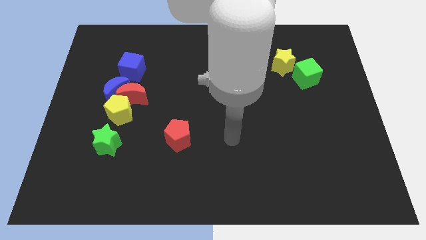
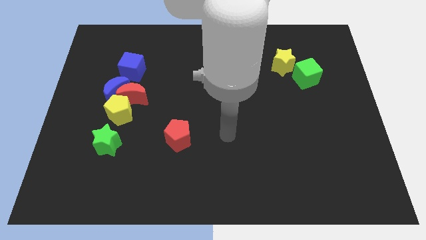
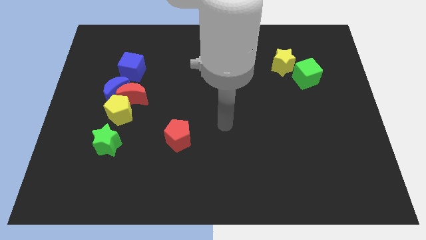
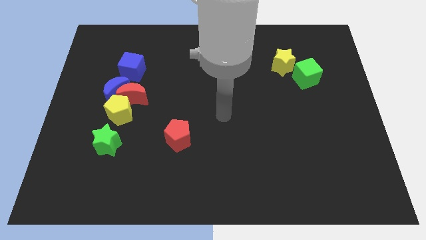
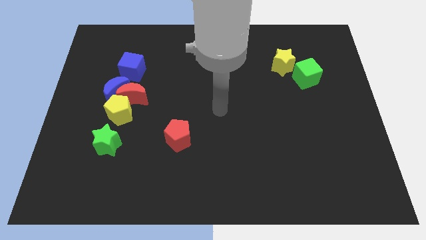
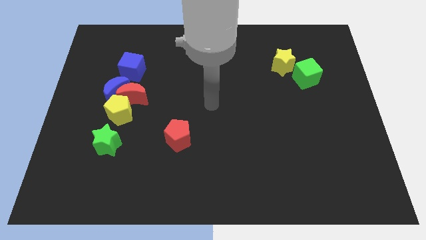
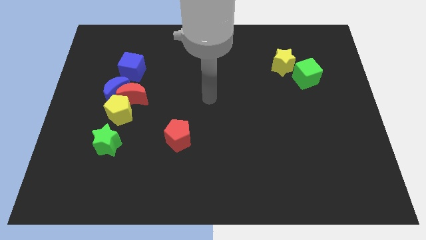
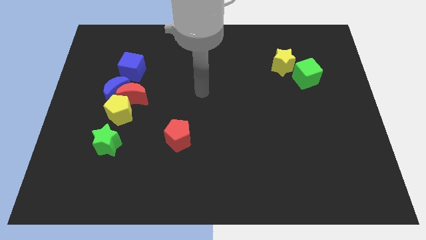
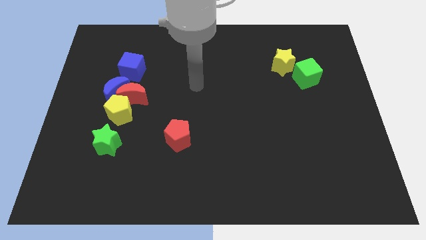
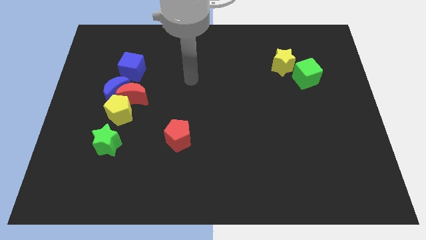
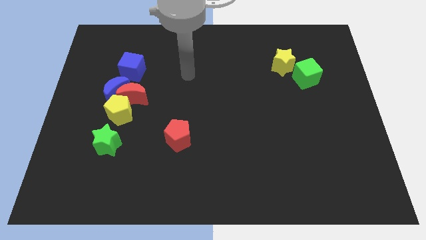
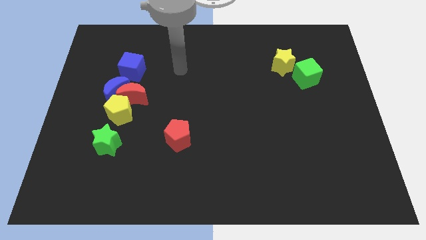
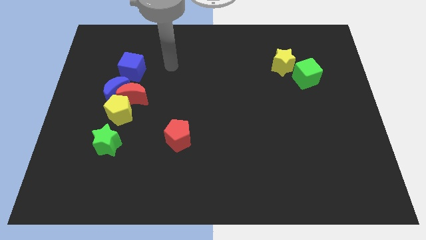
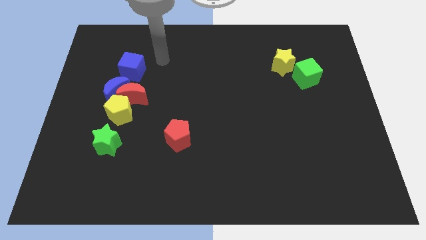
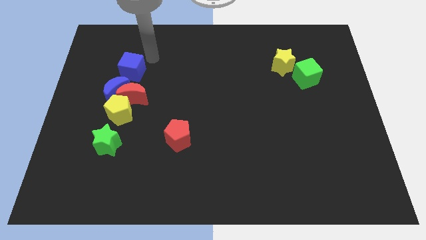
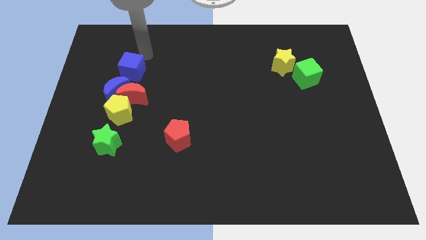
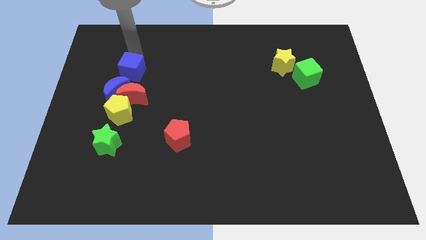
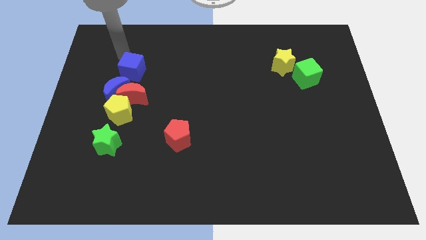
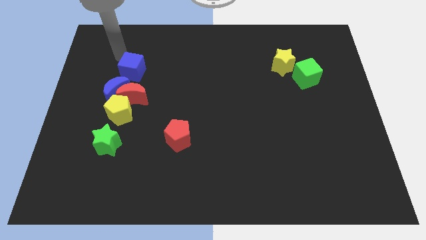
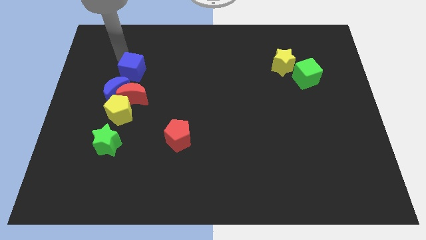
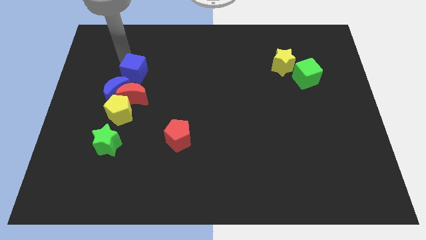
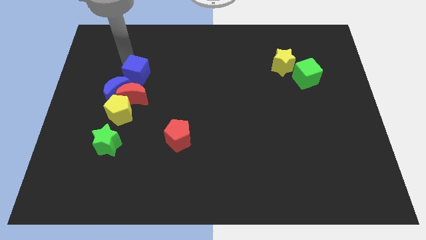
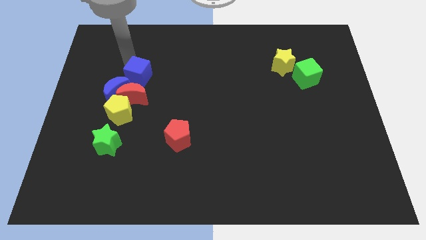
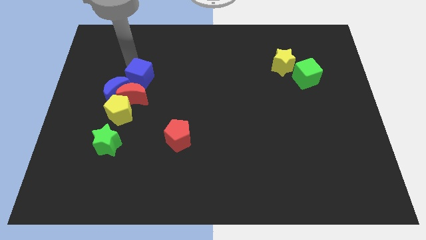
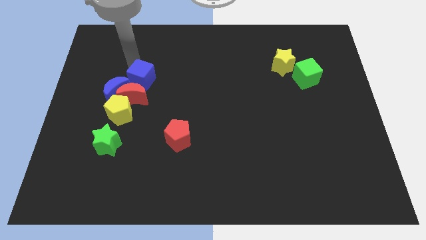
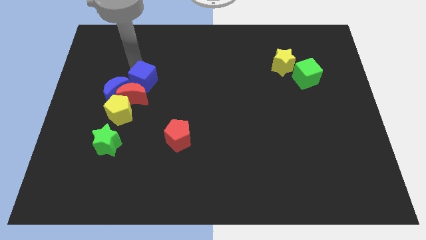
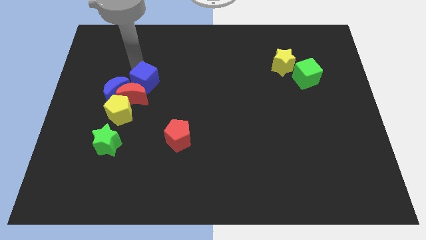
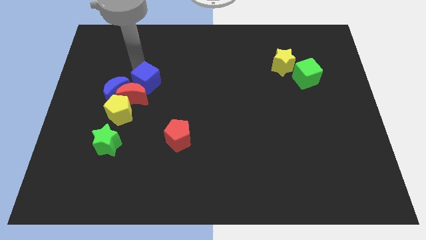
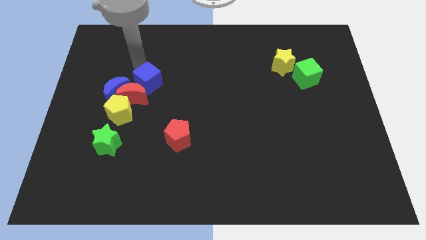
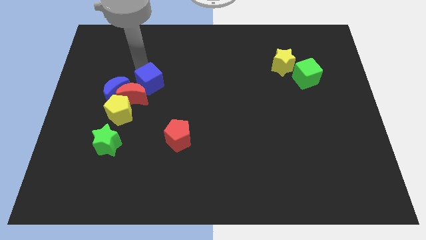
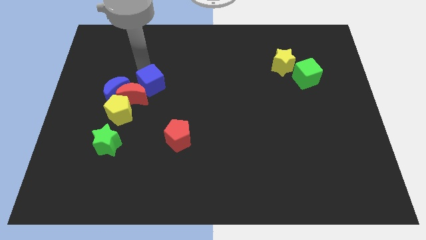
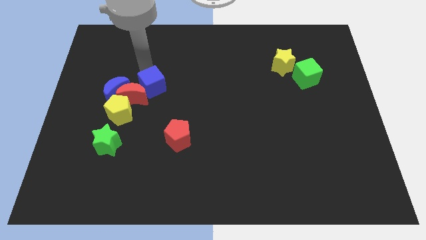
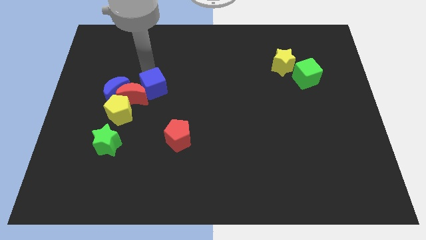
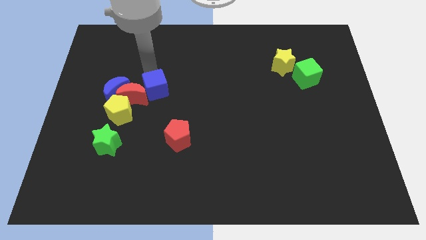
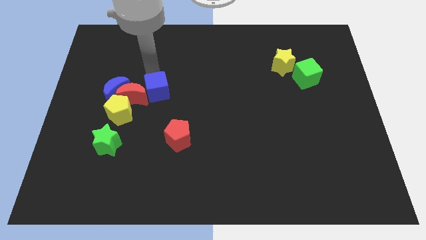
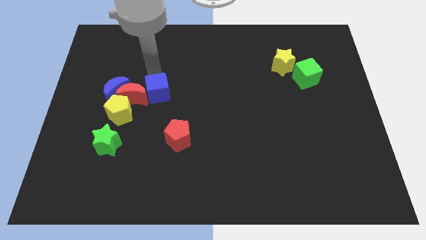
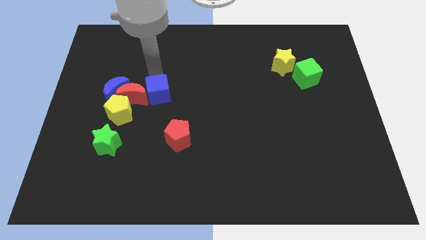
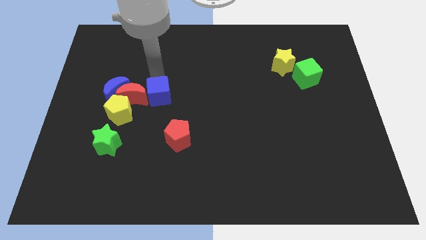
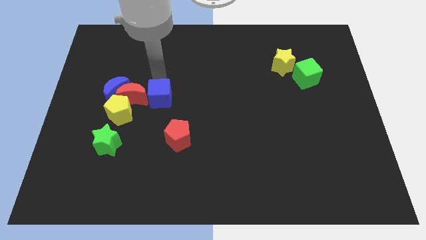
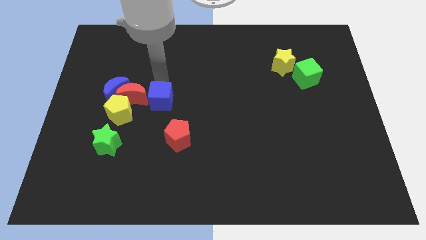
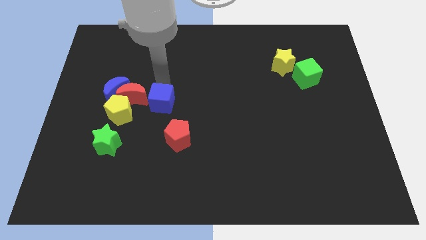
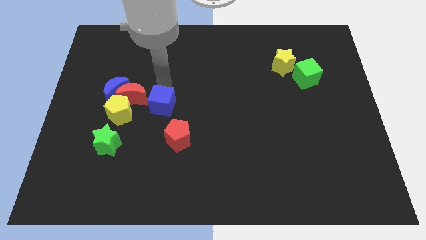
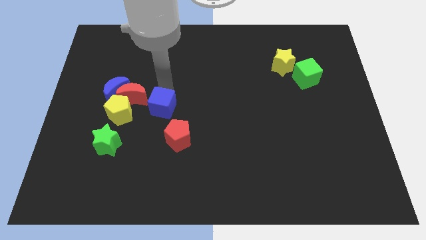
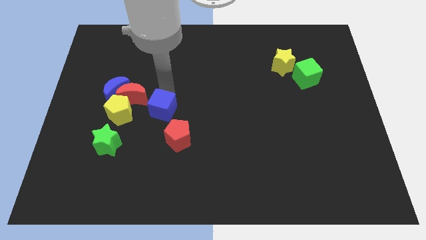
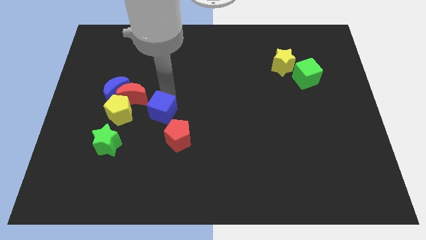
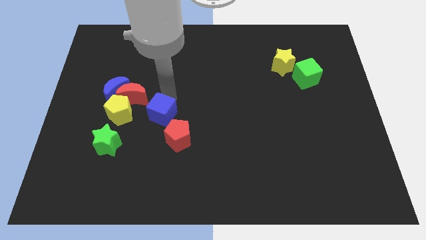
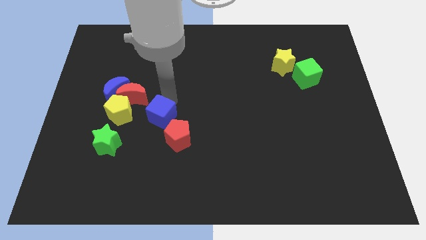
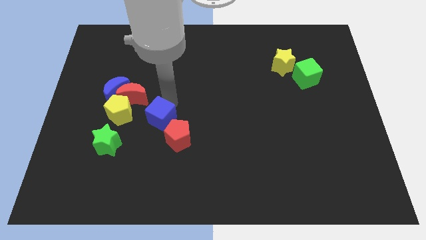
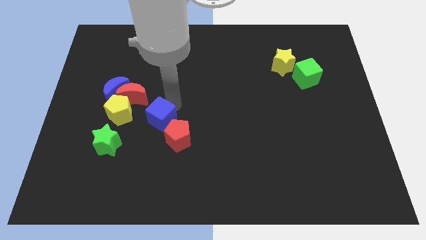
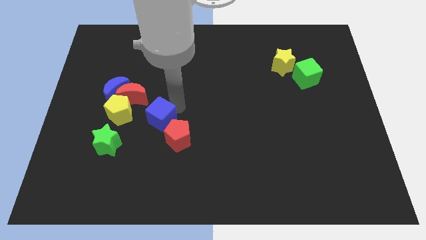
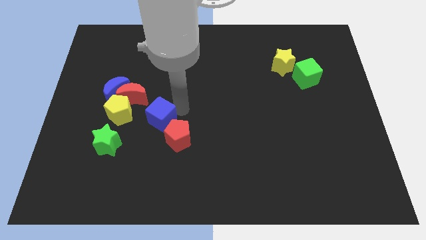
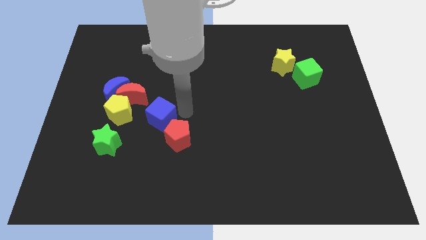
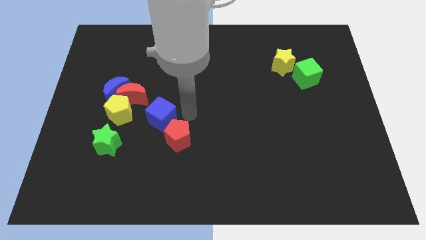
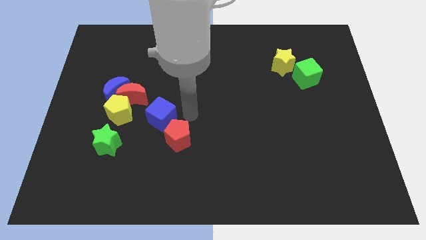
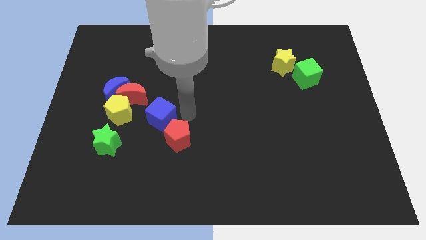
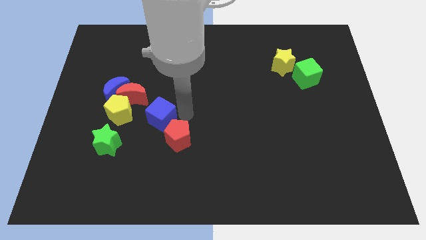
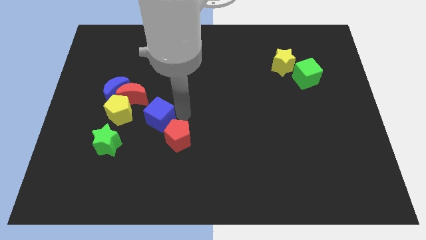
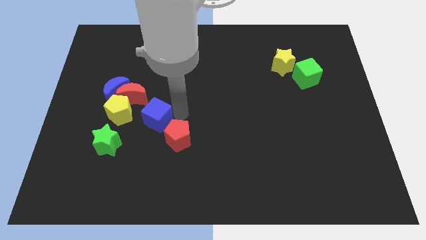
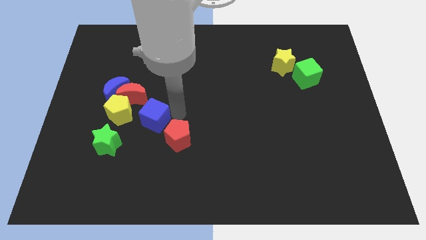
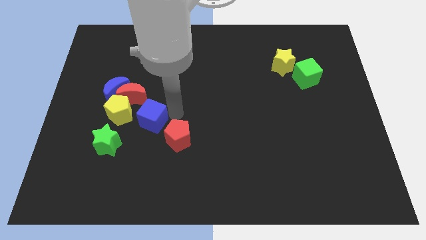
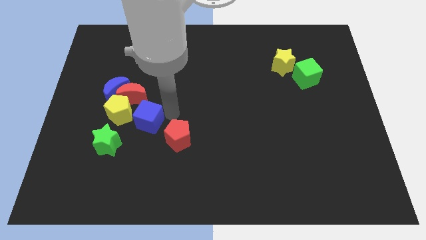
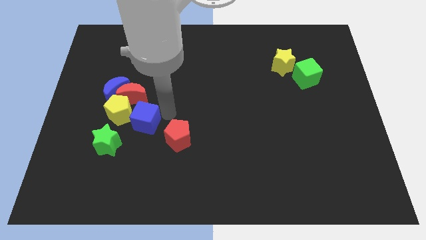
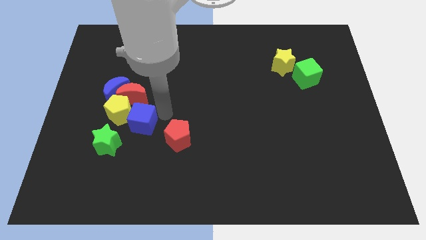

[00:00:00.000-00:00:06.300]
put the blue cube next to the yellow pentagon

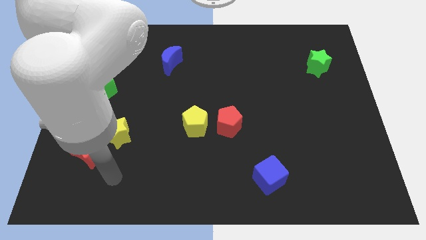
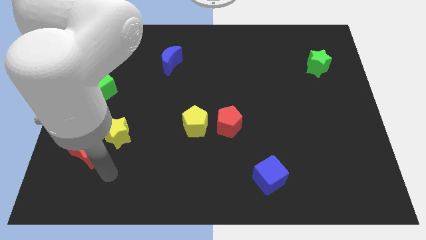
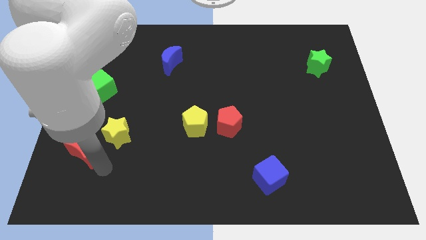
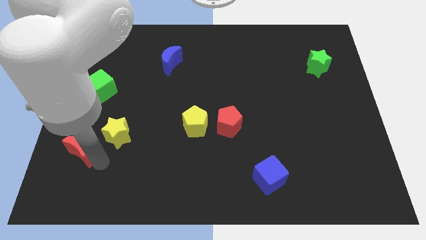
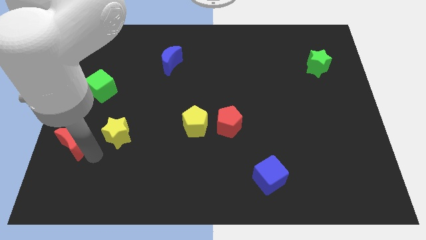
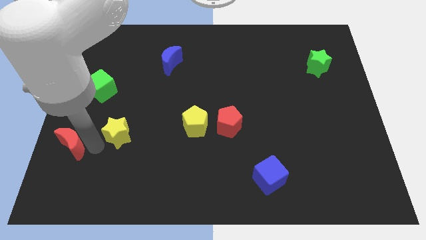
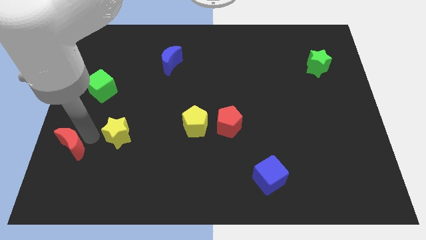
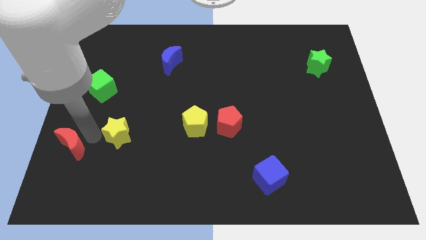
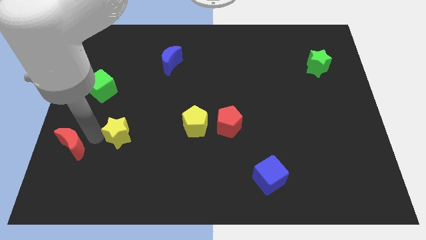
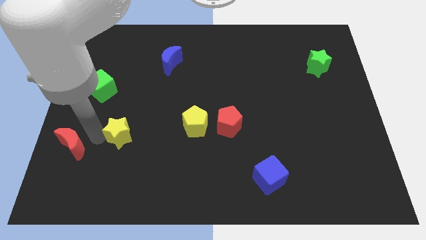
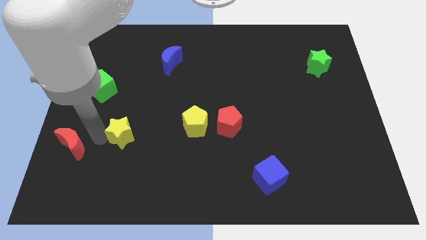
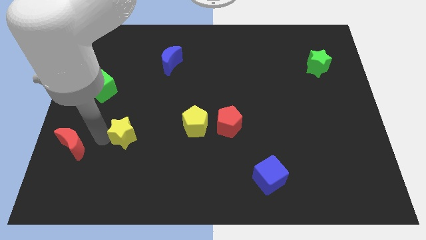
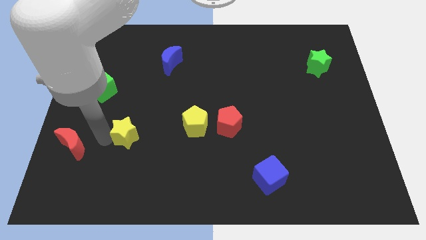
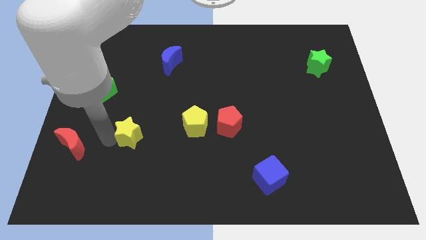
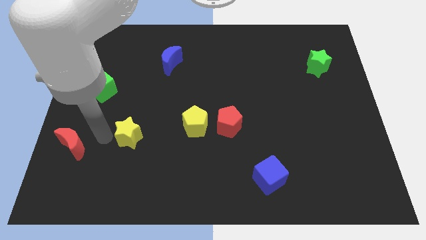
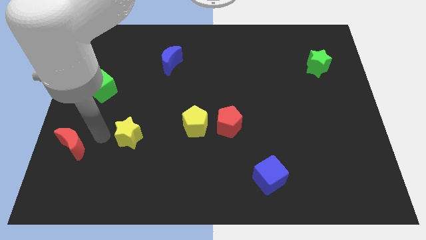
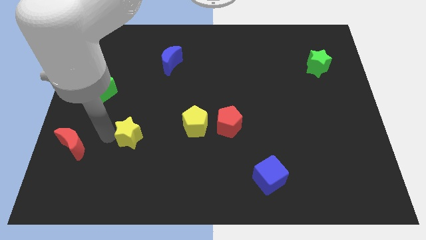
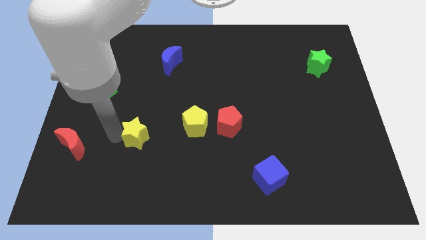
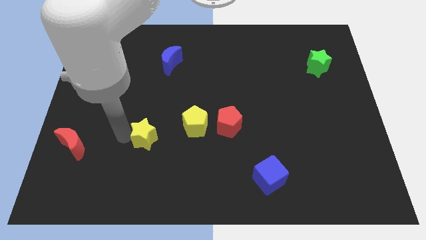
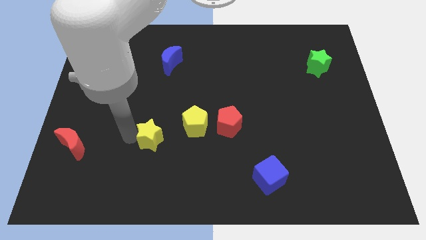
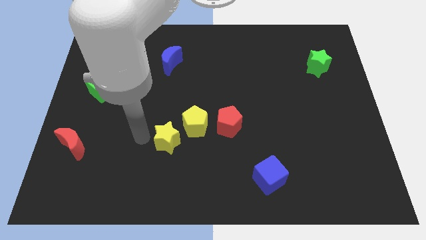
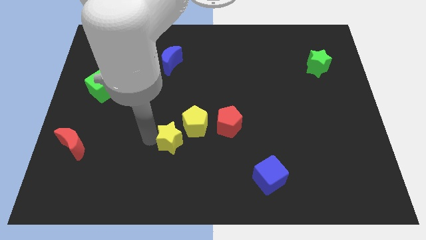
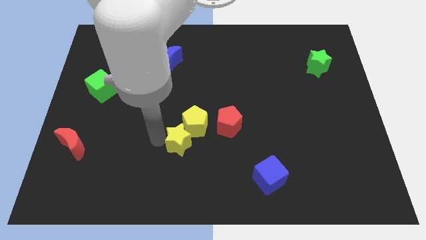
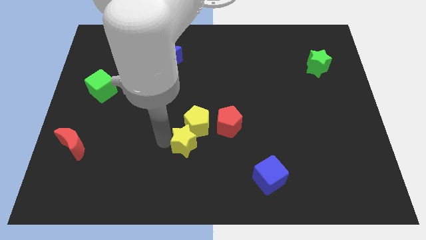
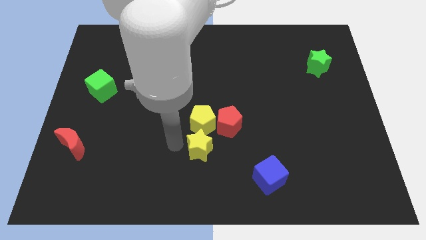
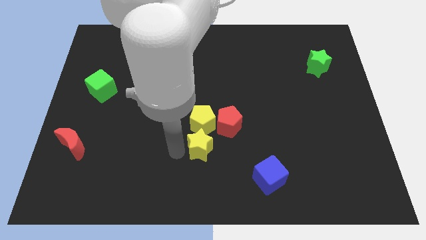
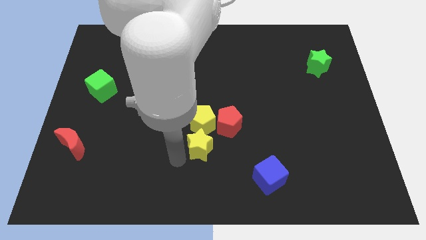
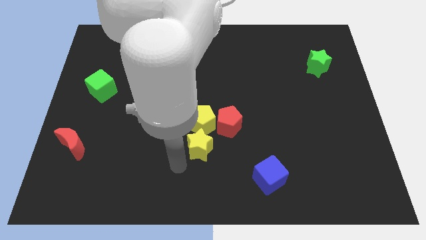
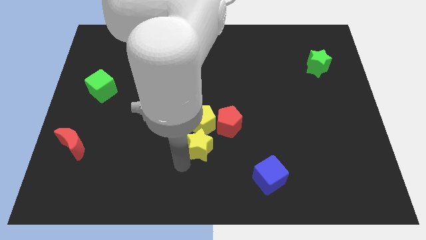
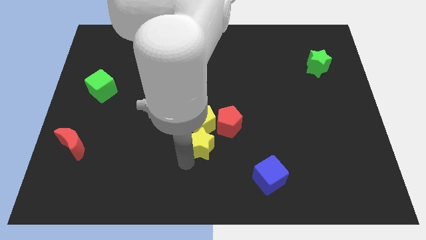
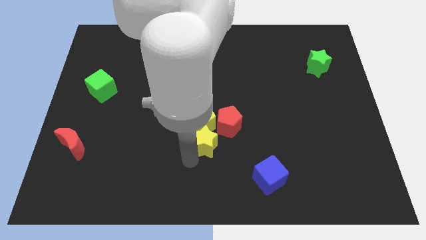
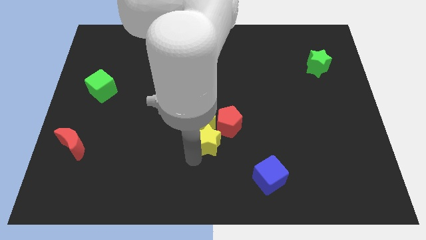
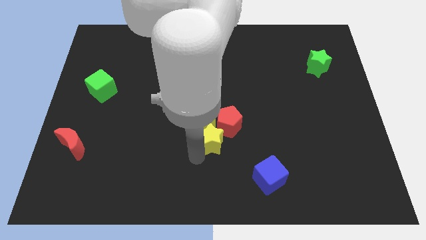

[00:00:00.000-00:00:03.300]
slide the yellow star towards the red pentagon
